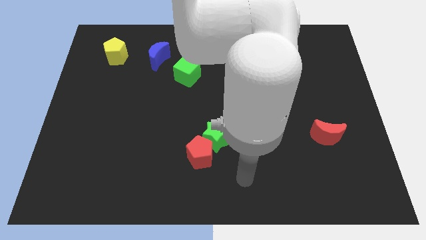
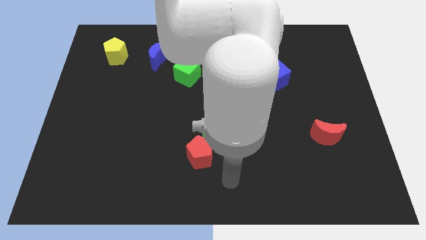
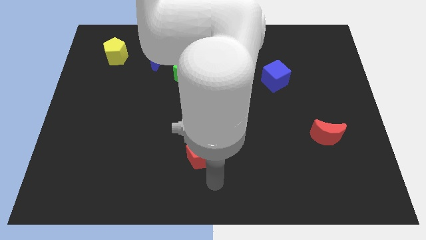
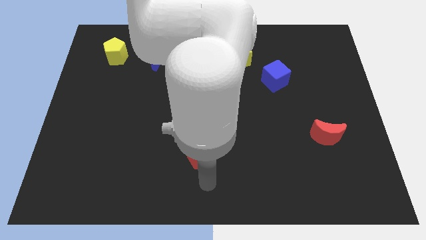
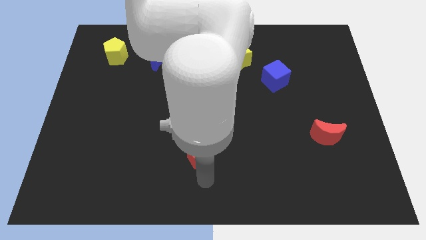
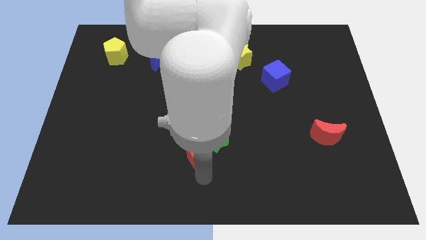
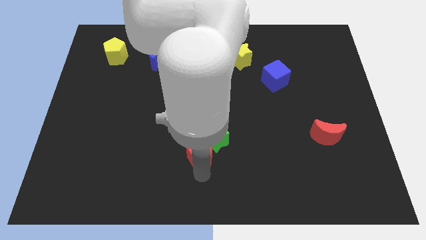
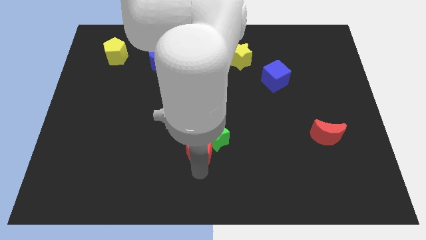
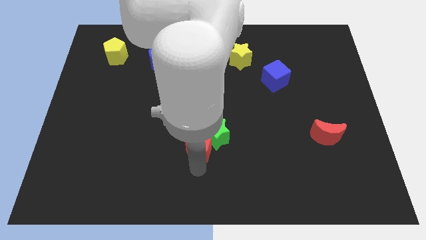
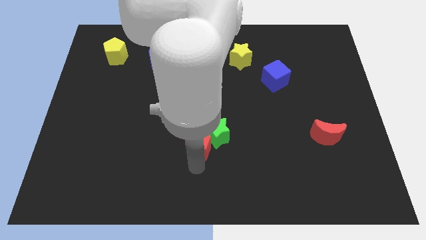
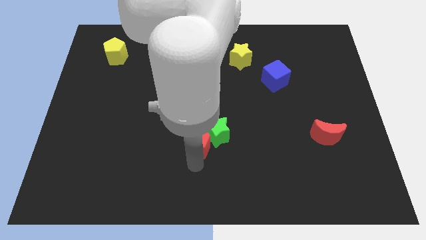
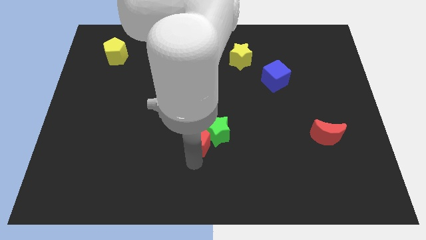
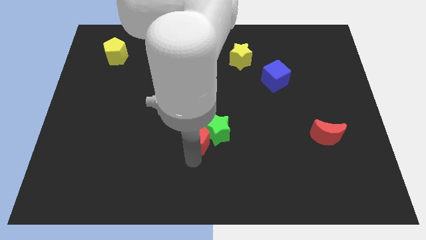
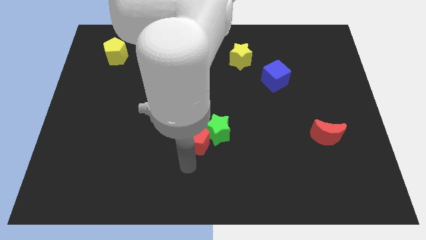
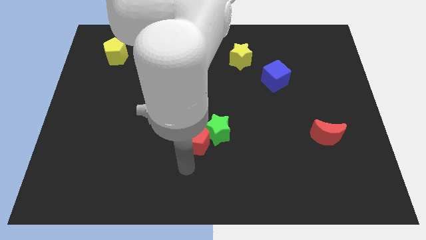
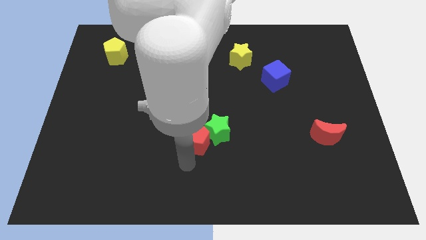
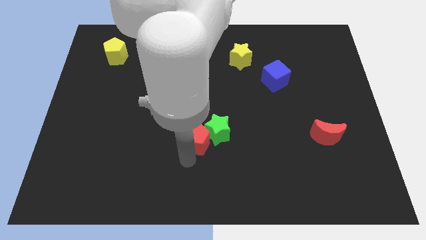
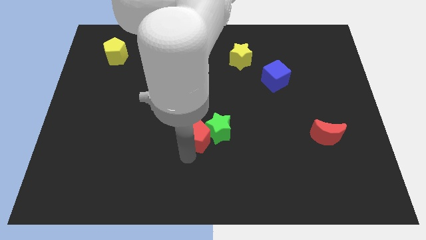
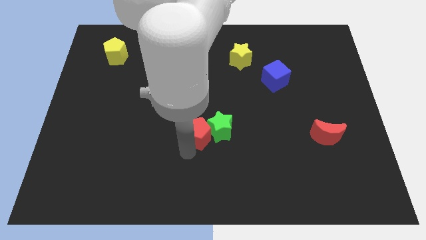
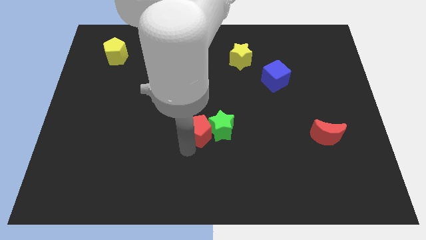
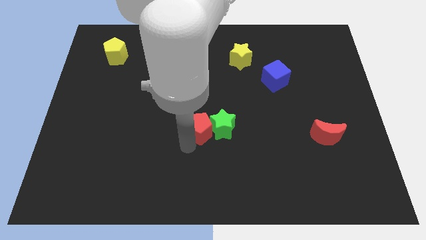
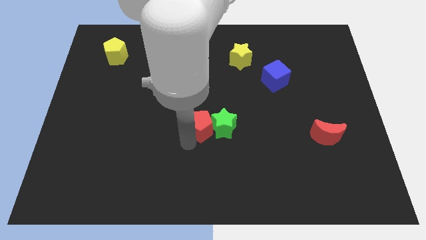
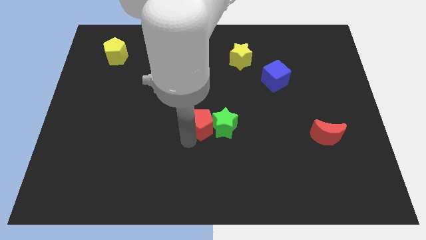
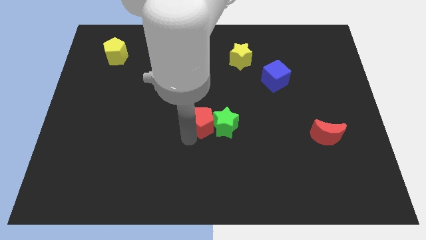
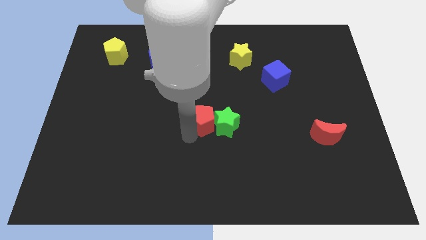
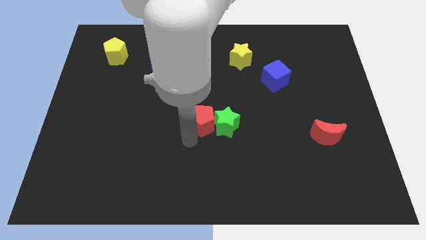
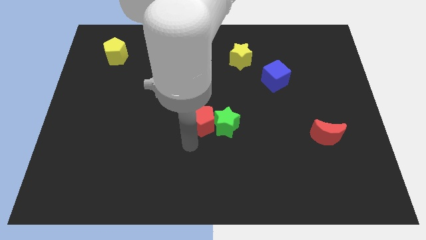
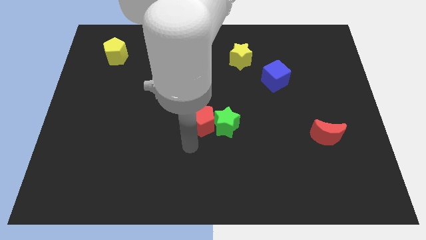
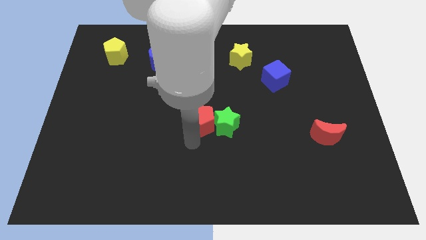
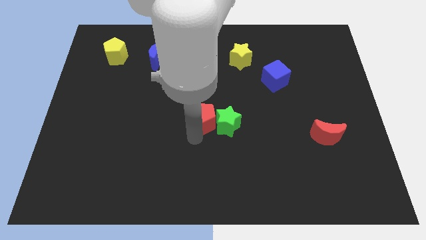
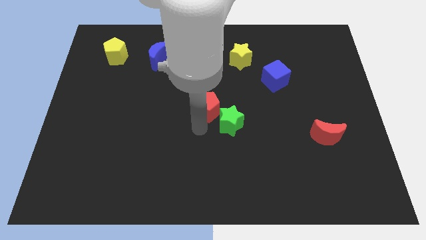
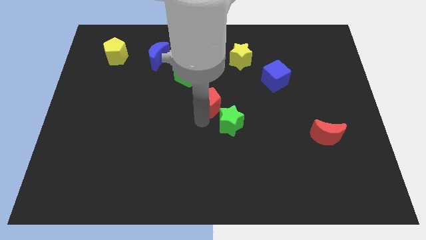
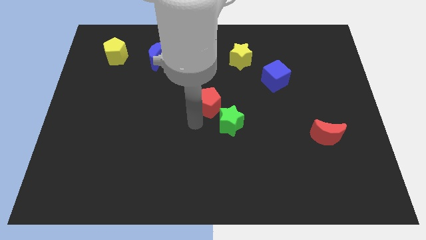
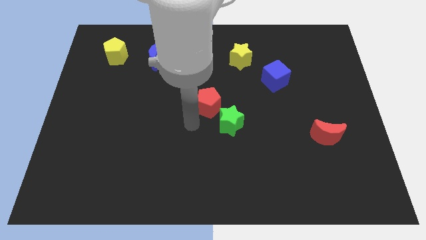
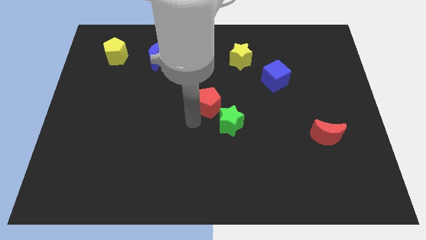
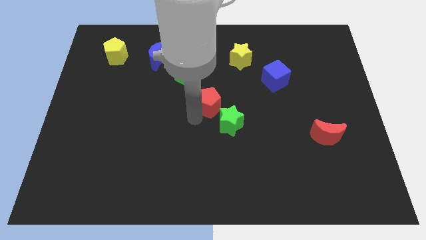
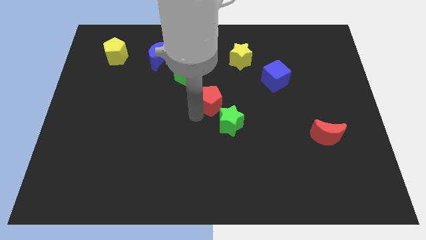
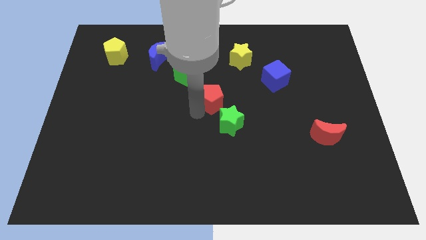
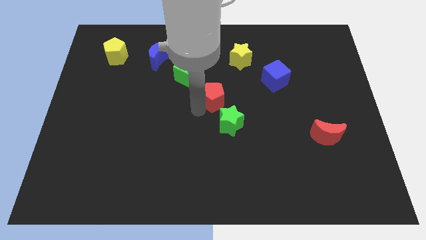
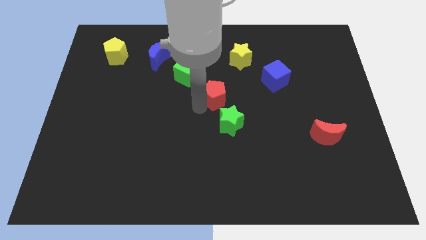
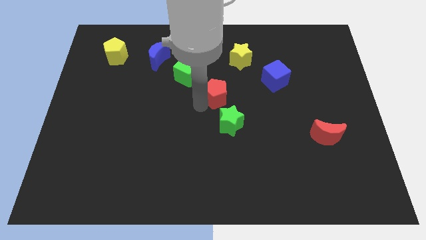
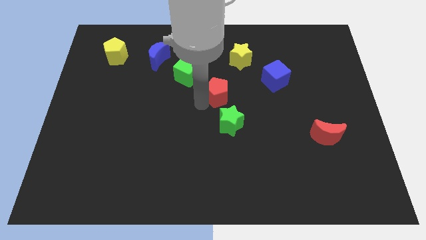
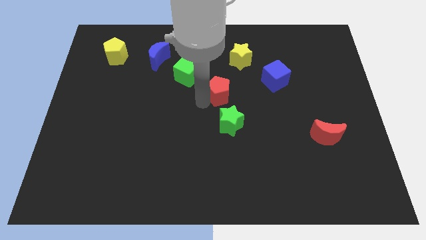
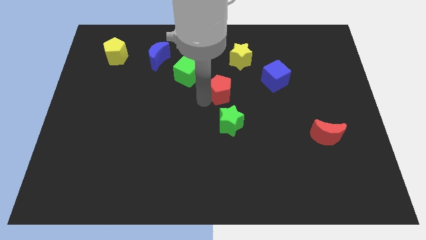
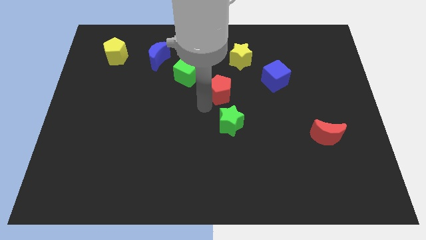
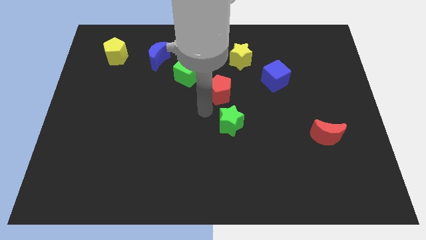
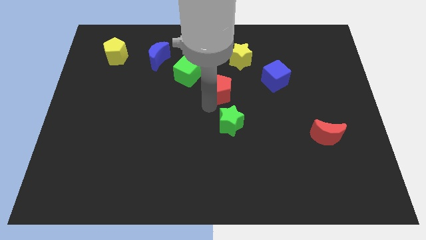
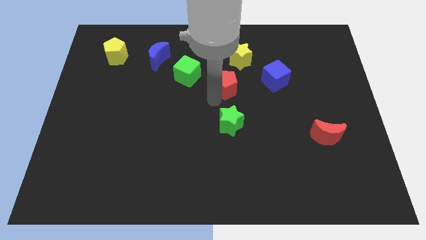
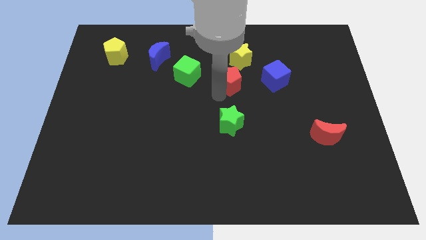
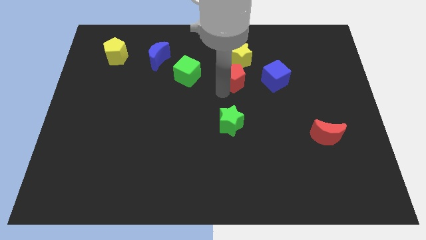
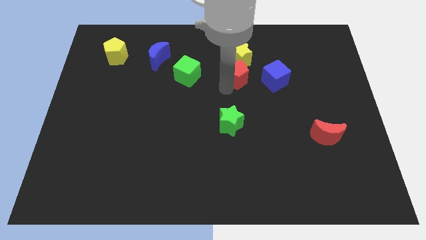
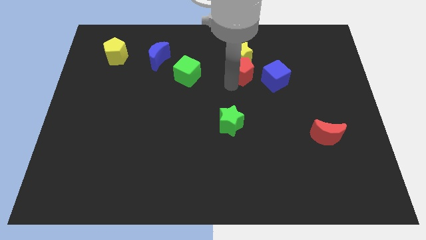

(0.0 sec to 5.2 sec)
push the red pentagon next to the yellow star
